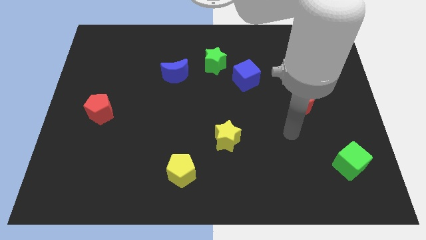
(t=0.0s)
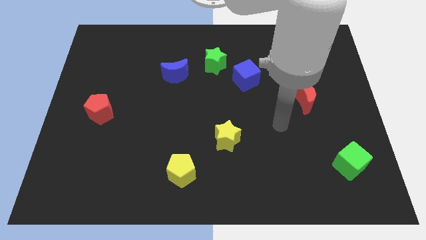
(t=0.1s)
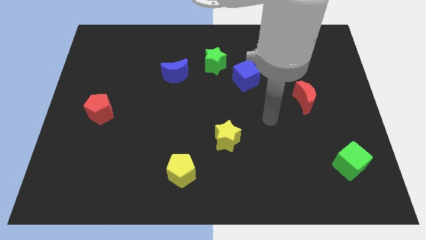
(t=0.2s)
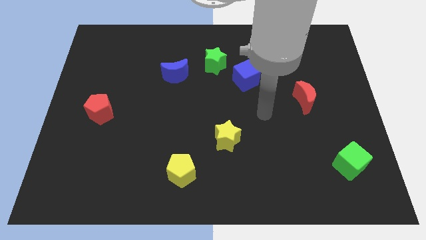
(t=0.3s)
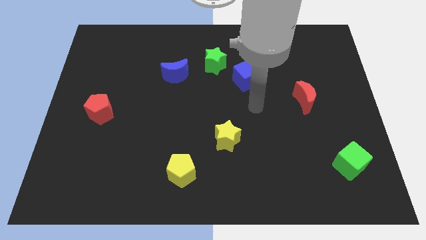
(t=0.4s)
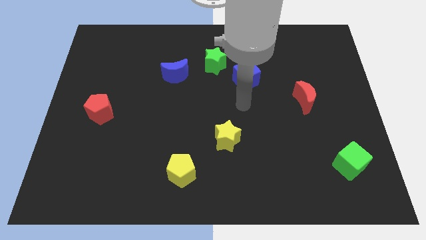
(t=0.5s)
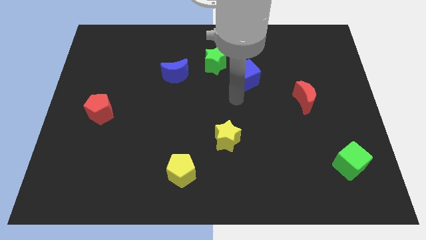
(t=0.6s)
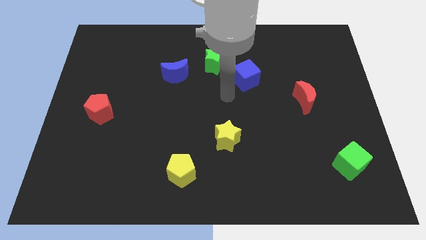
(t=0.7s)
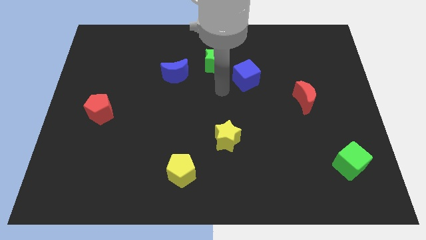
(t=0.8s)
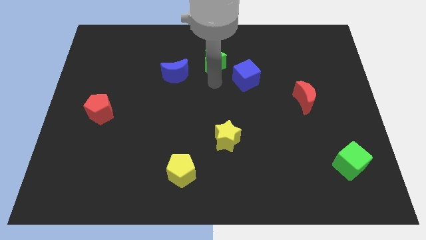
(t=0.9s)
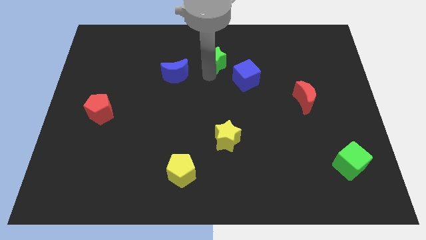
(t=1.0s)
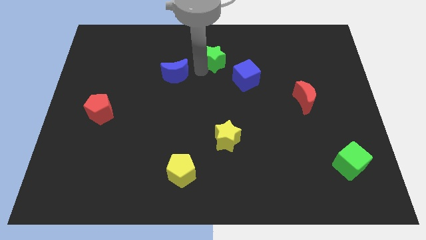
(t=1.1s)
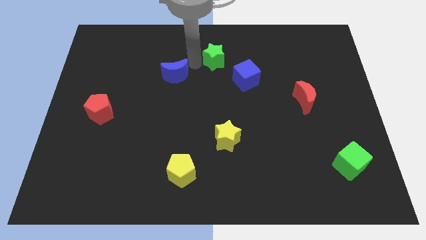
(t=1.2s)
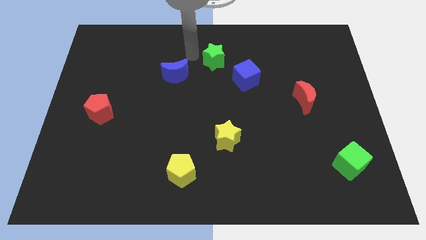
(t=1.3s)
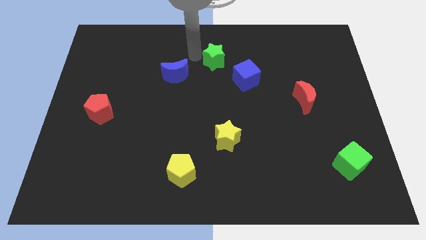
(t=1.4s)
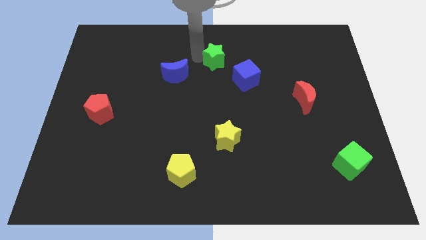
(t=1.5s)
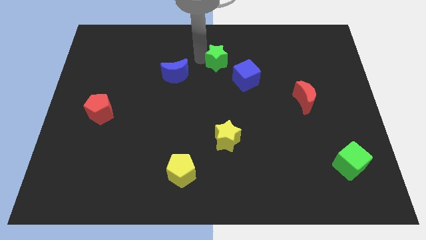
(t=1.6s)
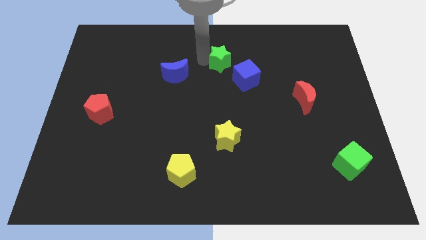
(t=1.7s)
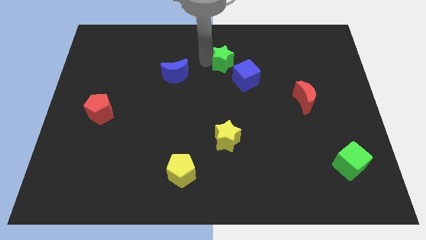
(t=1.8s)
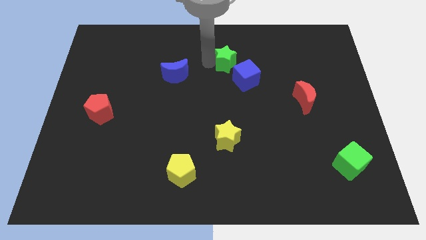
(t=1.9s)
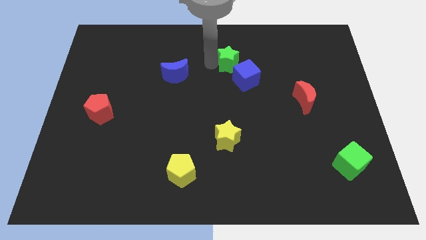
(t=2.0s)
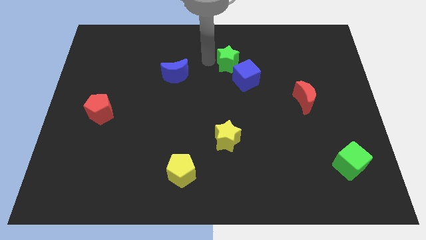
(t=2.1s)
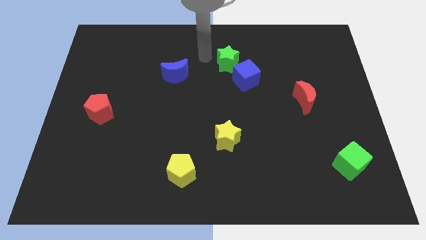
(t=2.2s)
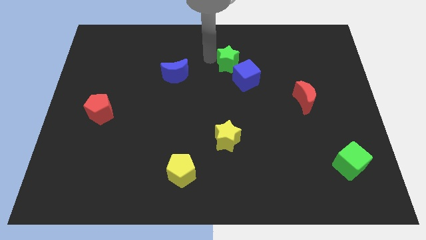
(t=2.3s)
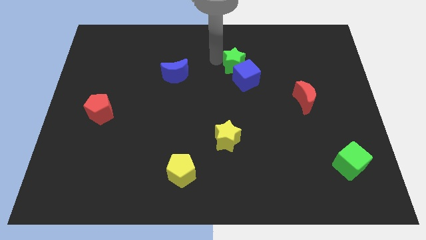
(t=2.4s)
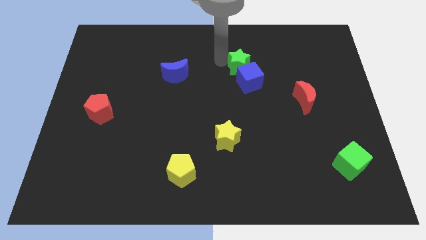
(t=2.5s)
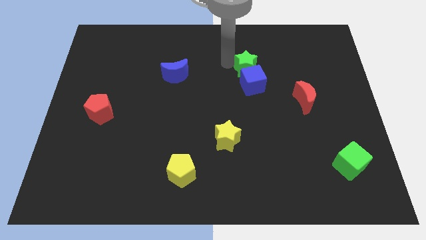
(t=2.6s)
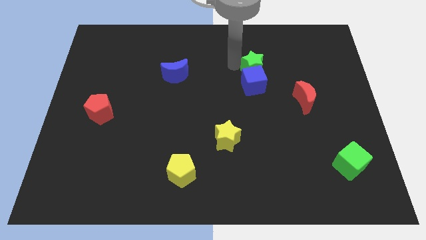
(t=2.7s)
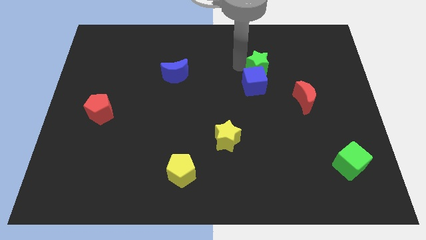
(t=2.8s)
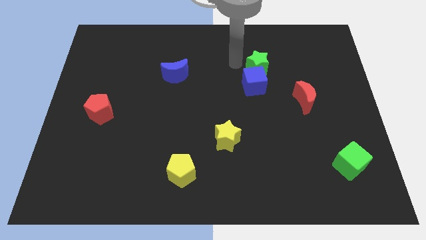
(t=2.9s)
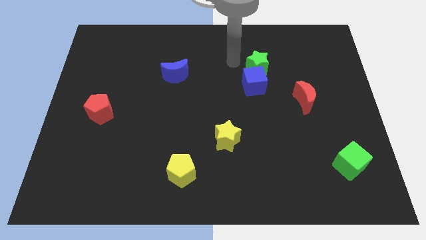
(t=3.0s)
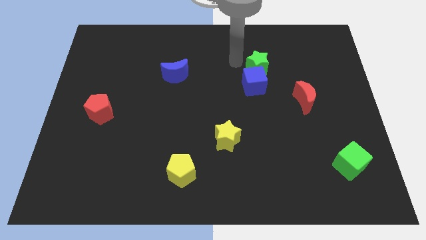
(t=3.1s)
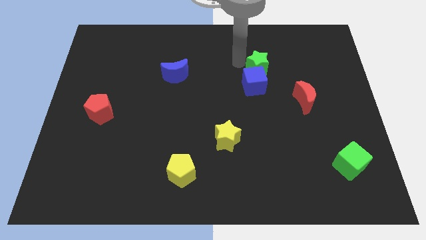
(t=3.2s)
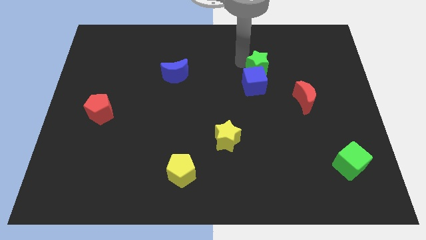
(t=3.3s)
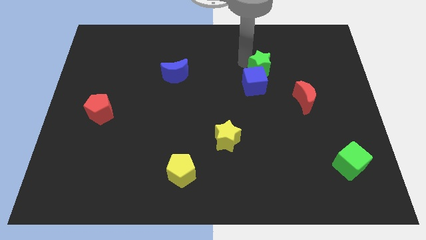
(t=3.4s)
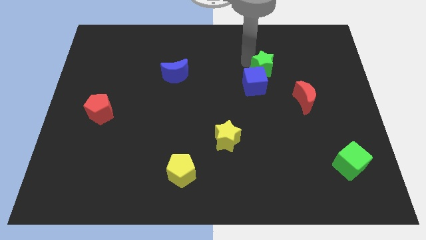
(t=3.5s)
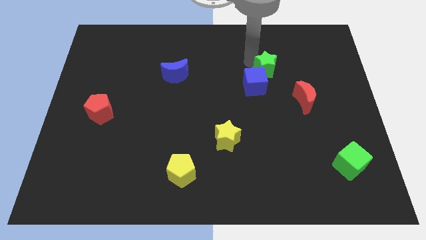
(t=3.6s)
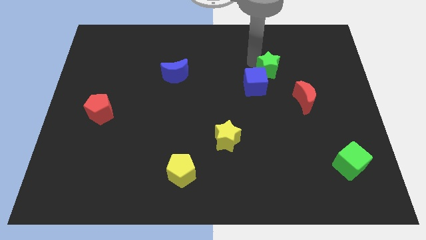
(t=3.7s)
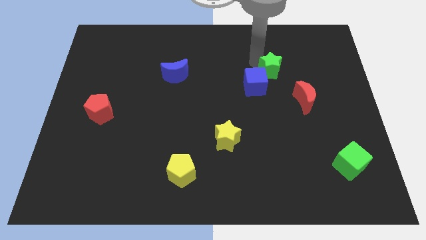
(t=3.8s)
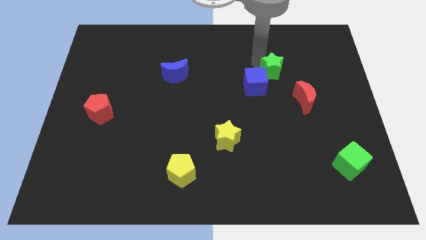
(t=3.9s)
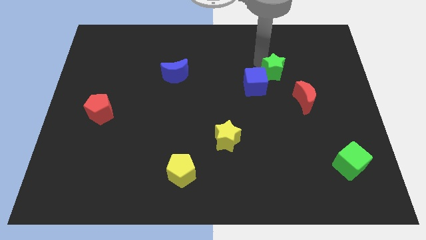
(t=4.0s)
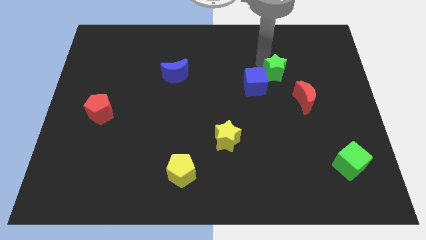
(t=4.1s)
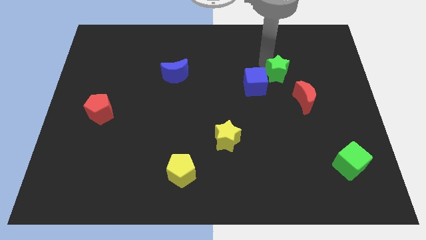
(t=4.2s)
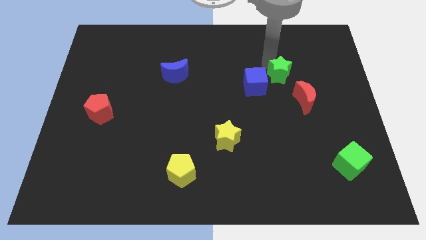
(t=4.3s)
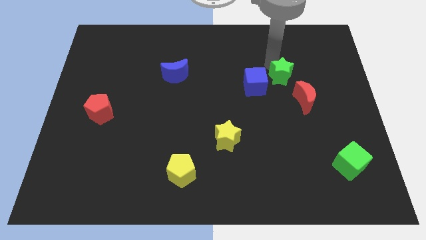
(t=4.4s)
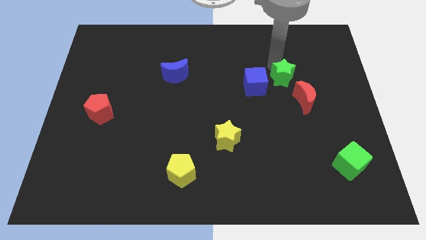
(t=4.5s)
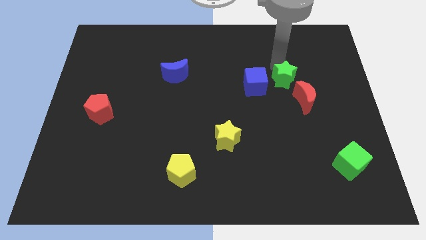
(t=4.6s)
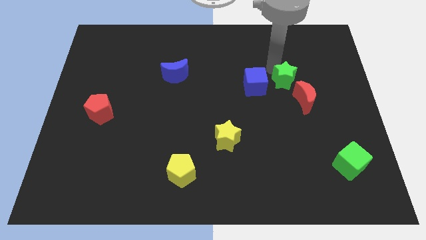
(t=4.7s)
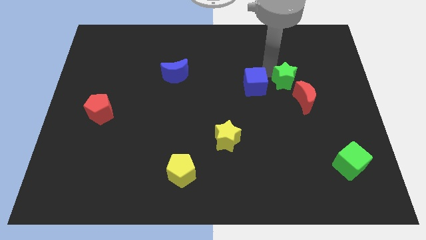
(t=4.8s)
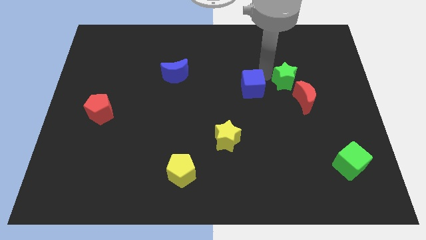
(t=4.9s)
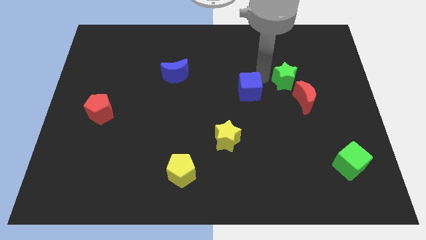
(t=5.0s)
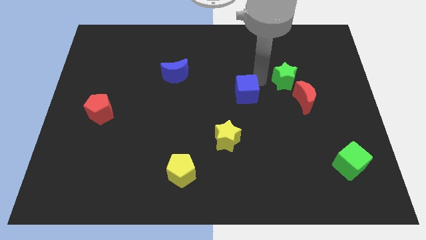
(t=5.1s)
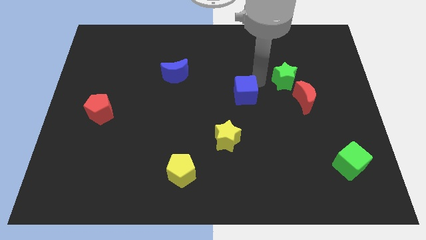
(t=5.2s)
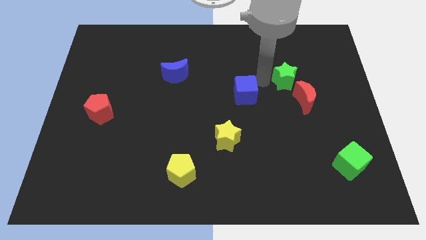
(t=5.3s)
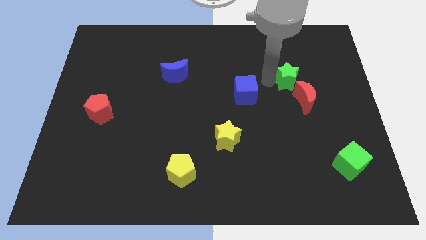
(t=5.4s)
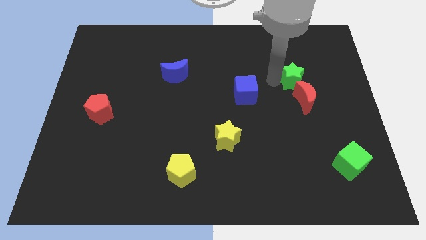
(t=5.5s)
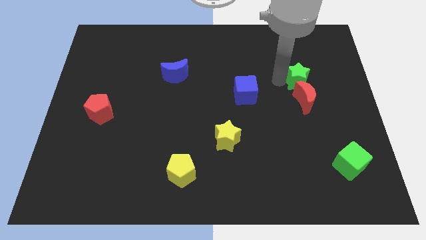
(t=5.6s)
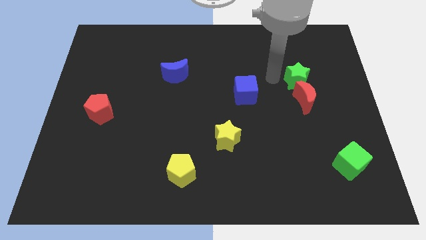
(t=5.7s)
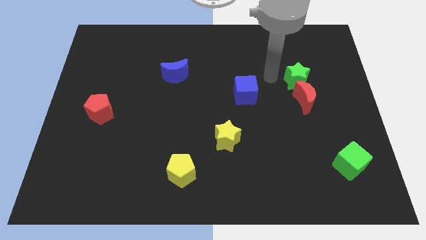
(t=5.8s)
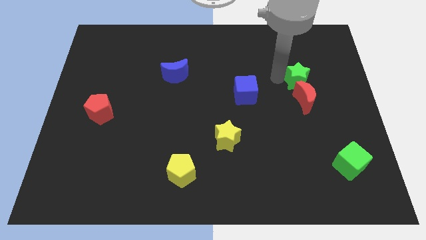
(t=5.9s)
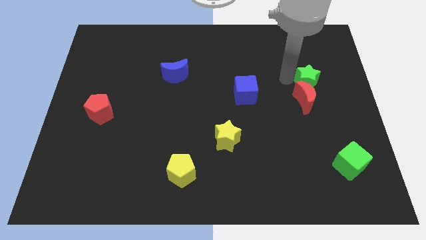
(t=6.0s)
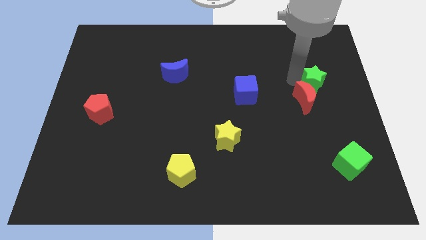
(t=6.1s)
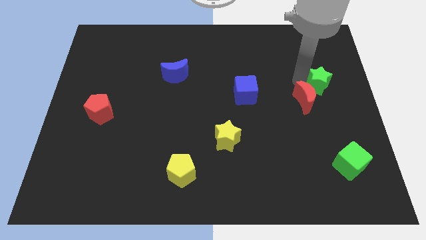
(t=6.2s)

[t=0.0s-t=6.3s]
put the green star to the center right

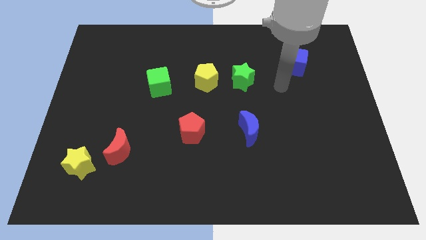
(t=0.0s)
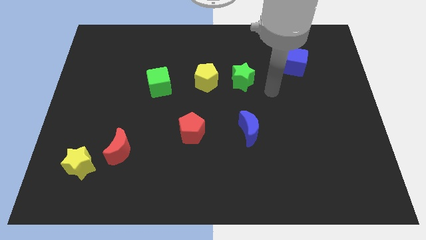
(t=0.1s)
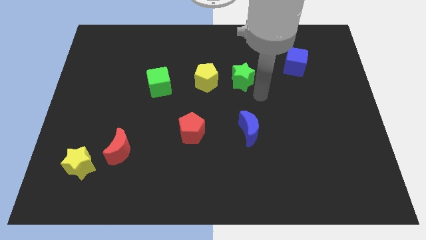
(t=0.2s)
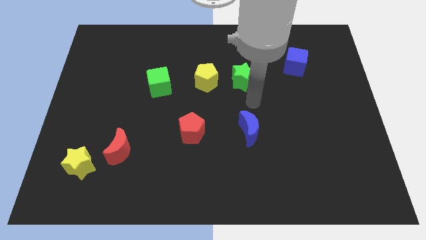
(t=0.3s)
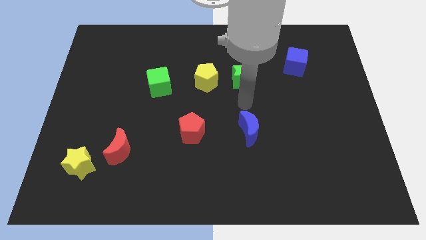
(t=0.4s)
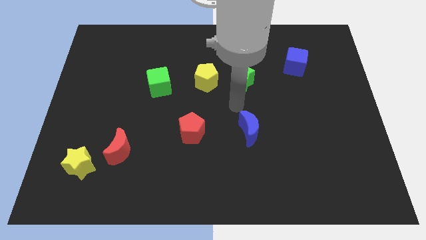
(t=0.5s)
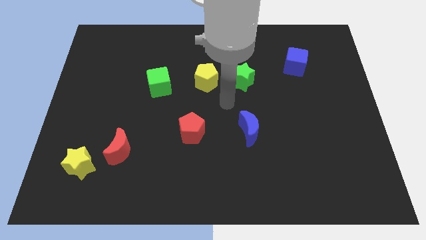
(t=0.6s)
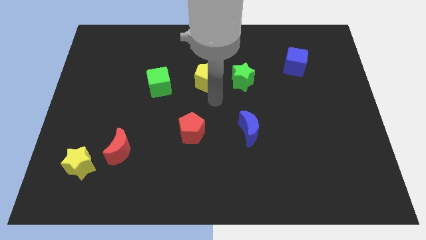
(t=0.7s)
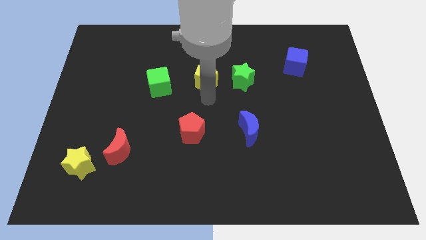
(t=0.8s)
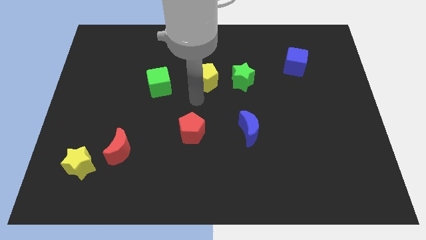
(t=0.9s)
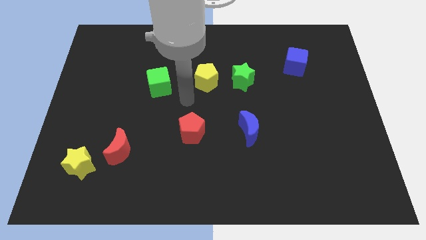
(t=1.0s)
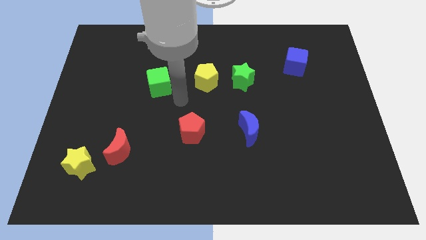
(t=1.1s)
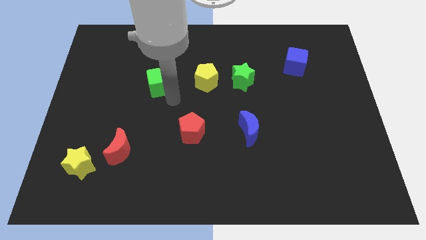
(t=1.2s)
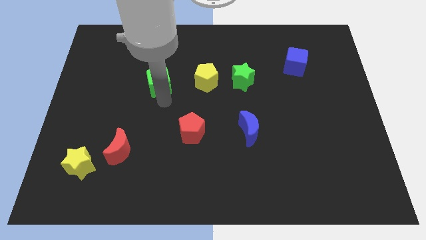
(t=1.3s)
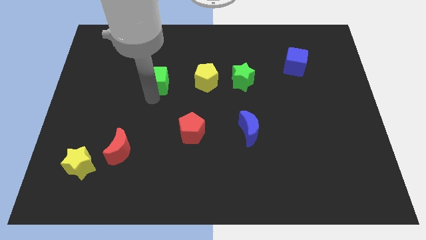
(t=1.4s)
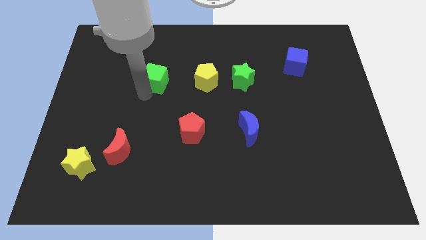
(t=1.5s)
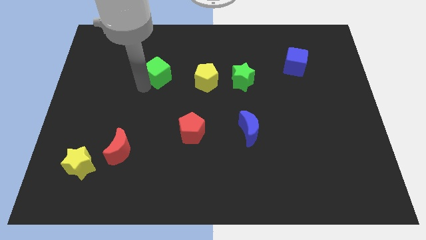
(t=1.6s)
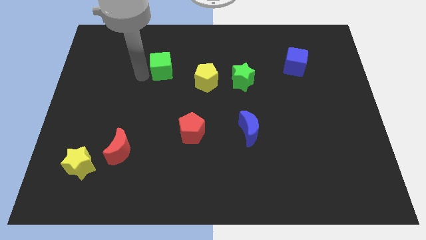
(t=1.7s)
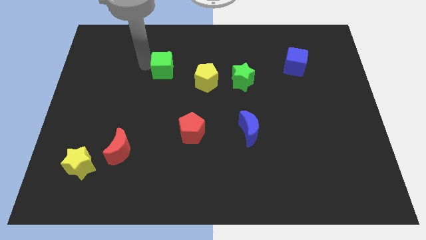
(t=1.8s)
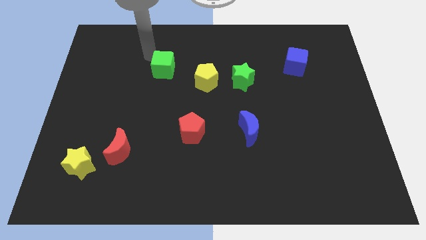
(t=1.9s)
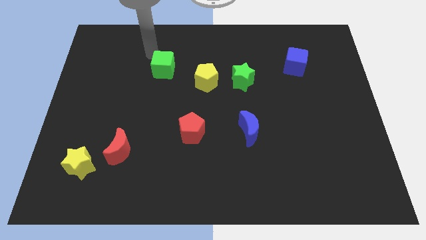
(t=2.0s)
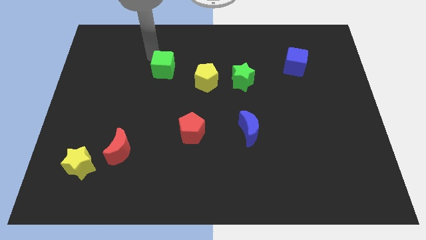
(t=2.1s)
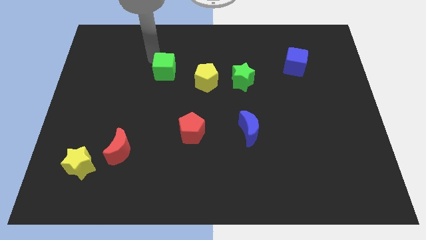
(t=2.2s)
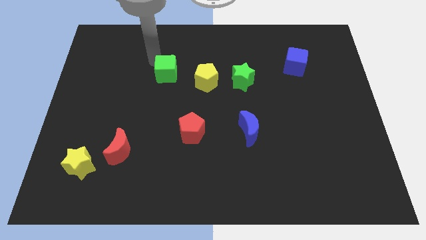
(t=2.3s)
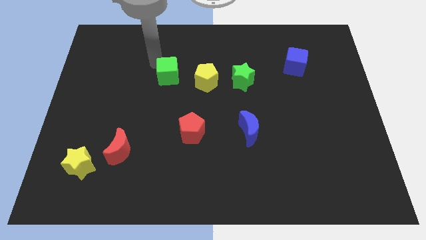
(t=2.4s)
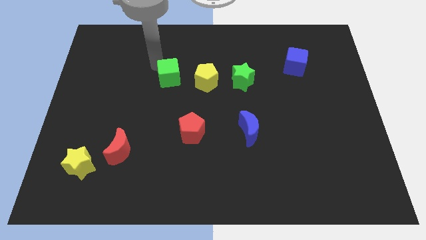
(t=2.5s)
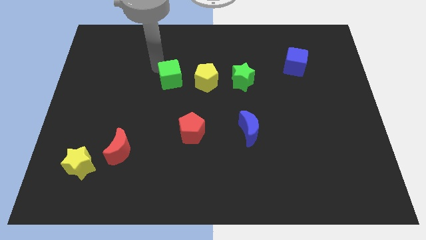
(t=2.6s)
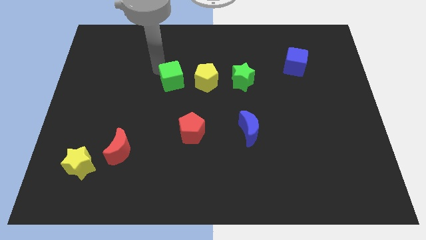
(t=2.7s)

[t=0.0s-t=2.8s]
push the green cube to the middle of the board
